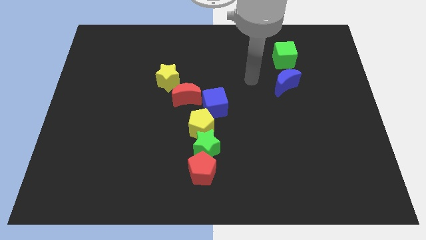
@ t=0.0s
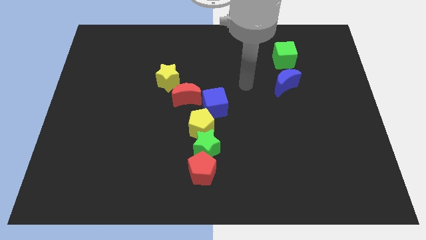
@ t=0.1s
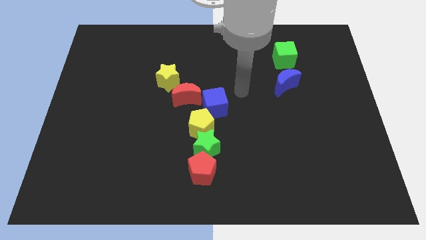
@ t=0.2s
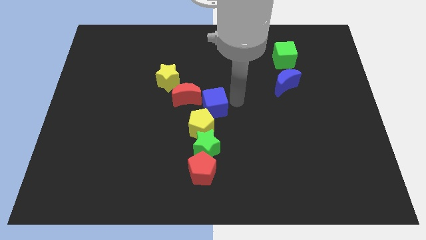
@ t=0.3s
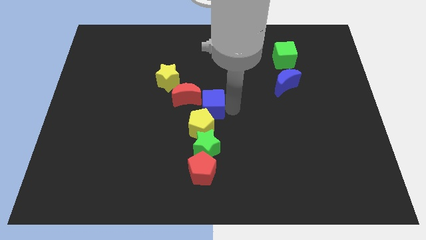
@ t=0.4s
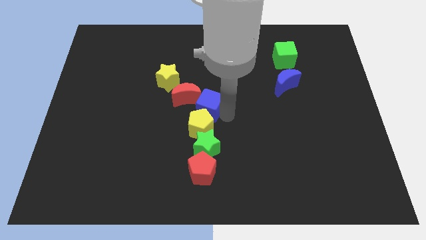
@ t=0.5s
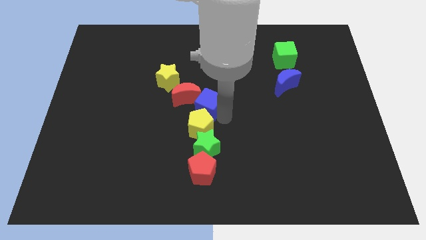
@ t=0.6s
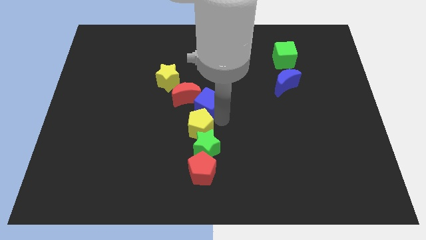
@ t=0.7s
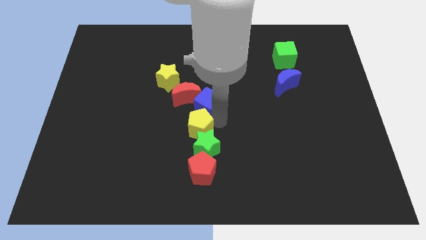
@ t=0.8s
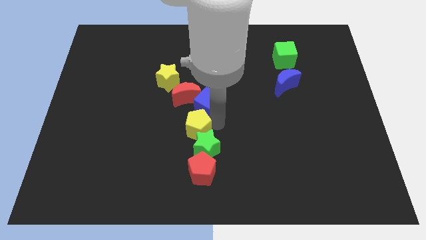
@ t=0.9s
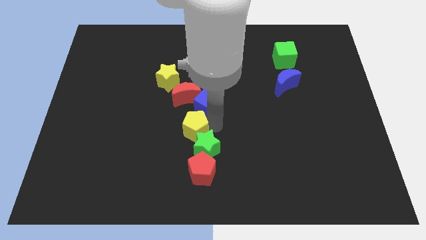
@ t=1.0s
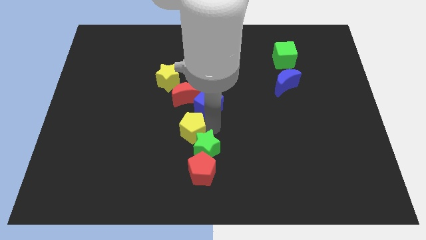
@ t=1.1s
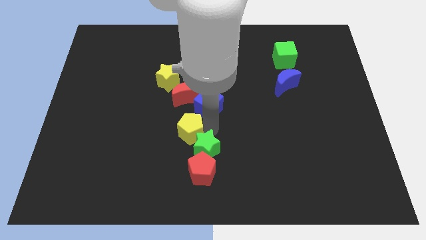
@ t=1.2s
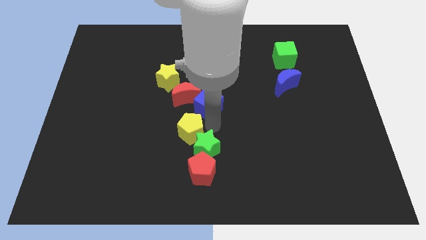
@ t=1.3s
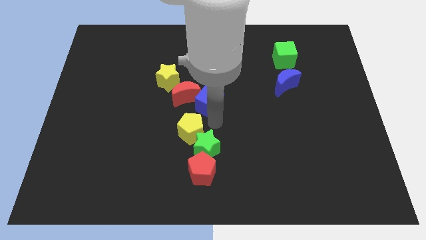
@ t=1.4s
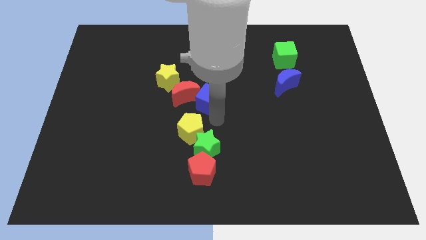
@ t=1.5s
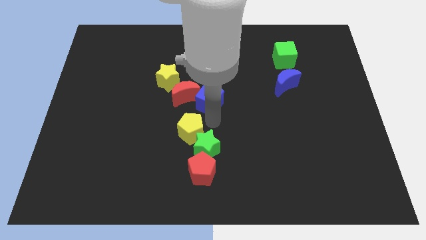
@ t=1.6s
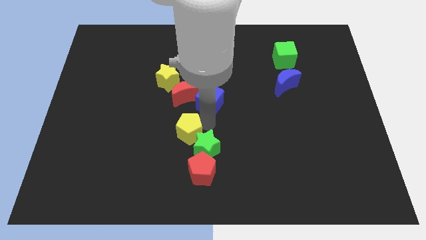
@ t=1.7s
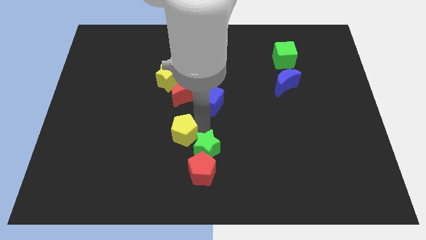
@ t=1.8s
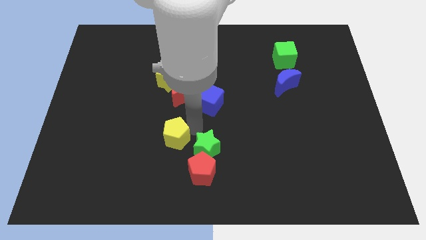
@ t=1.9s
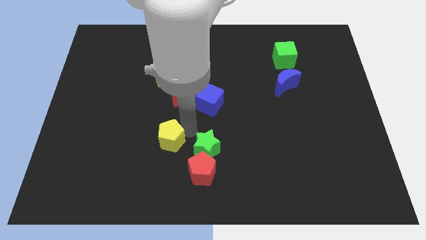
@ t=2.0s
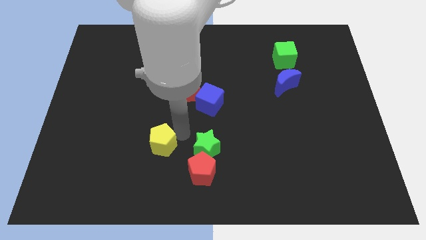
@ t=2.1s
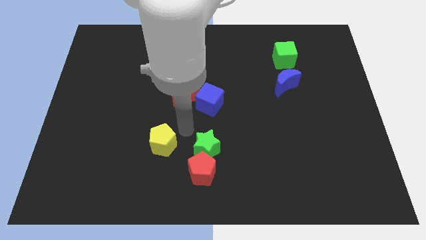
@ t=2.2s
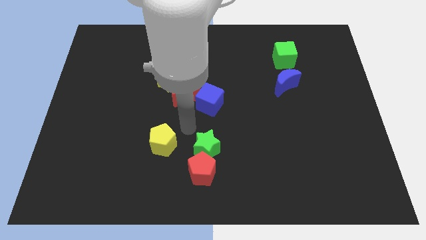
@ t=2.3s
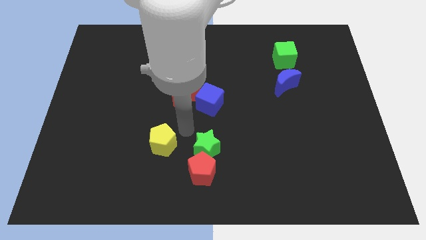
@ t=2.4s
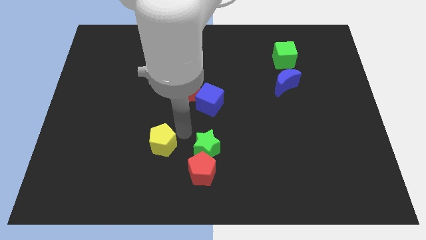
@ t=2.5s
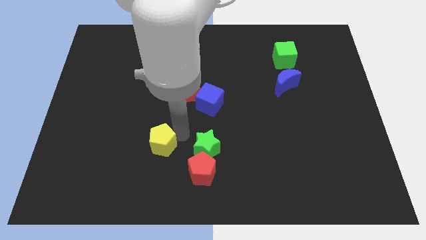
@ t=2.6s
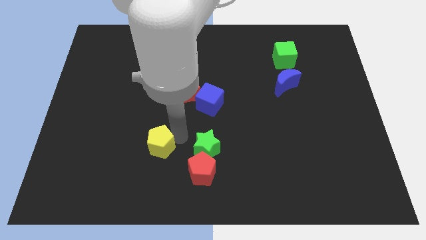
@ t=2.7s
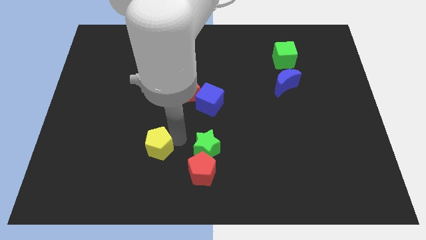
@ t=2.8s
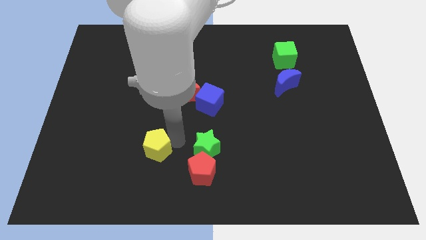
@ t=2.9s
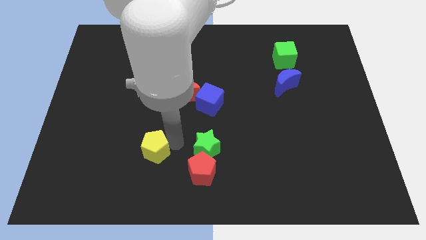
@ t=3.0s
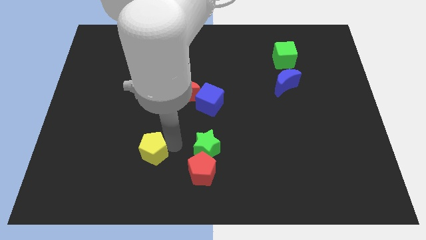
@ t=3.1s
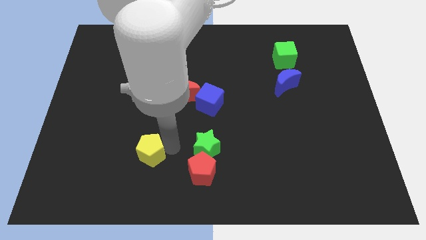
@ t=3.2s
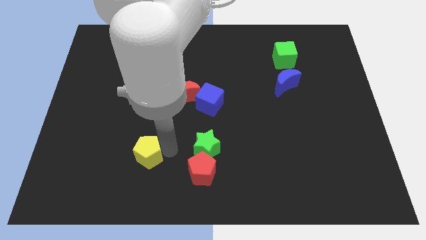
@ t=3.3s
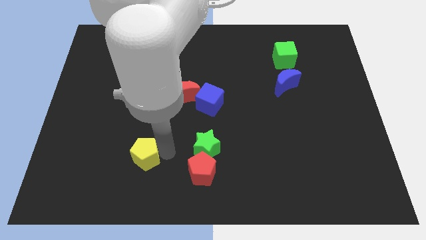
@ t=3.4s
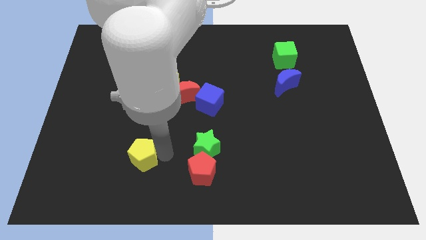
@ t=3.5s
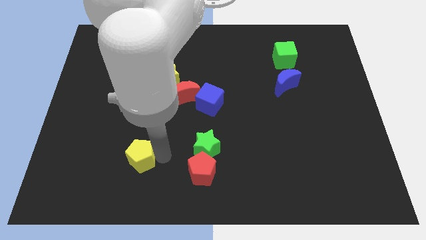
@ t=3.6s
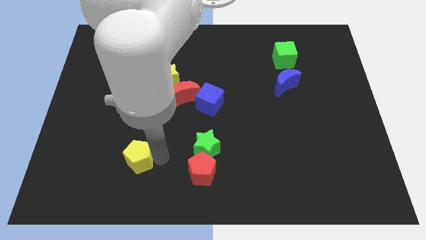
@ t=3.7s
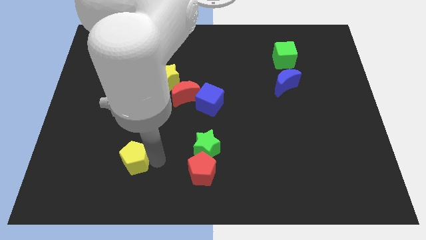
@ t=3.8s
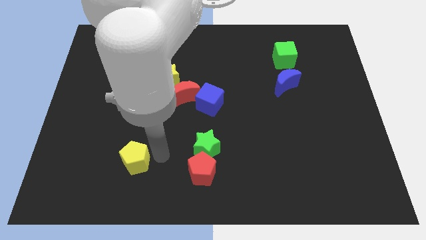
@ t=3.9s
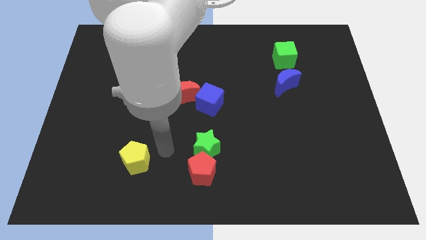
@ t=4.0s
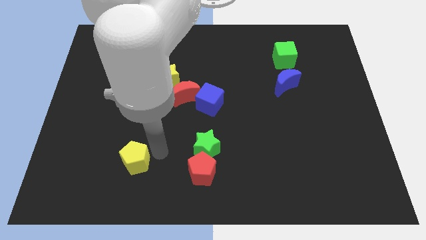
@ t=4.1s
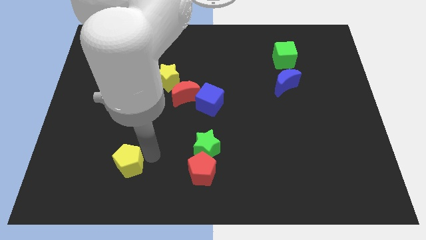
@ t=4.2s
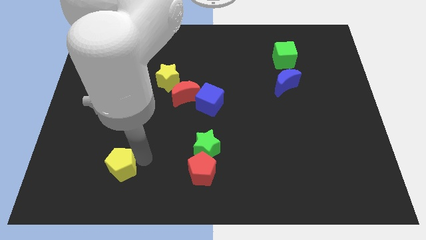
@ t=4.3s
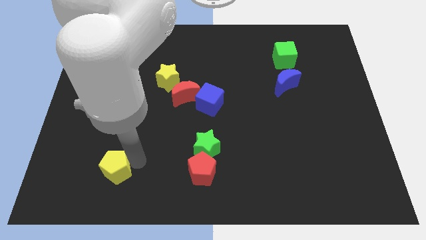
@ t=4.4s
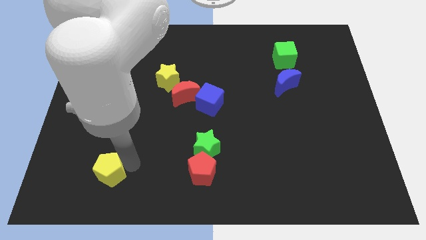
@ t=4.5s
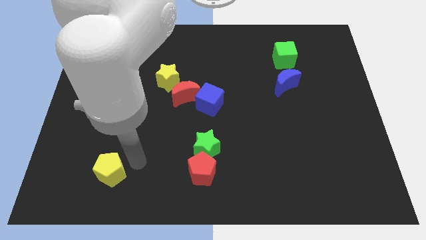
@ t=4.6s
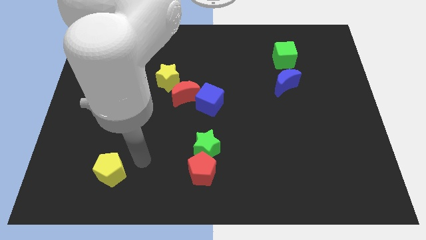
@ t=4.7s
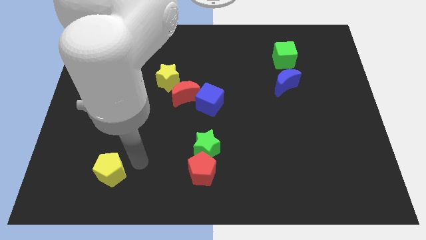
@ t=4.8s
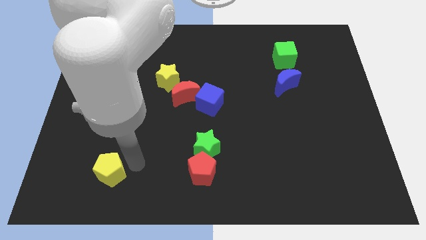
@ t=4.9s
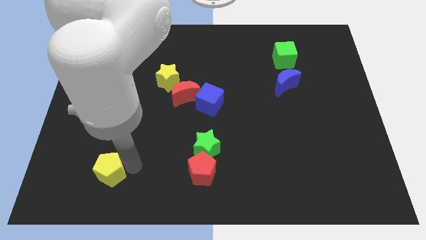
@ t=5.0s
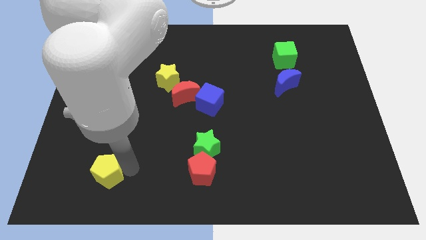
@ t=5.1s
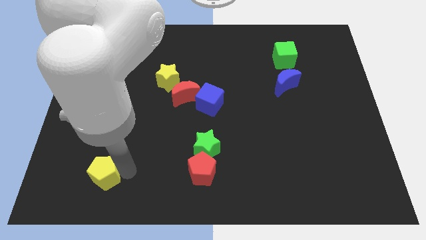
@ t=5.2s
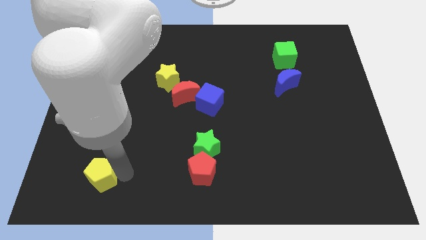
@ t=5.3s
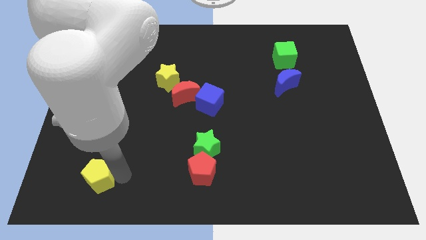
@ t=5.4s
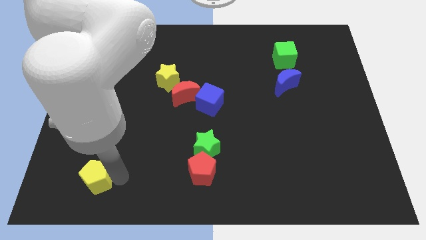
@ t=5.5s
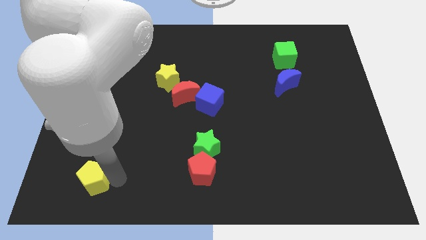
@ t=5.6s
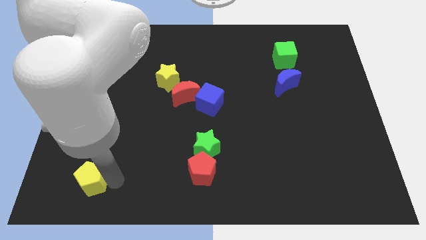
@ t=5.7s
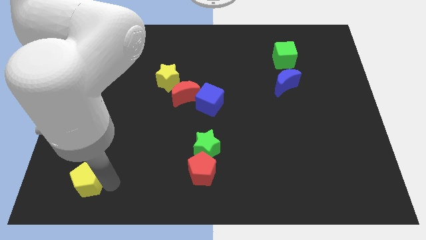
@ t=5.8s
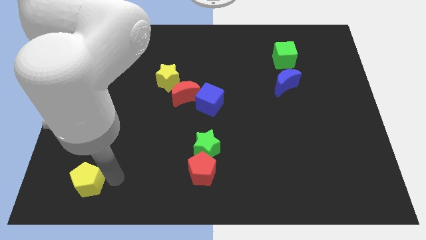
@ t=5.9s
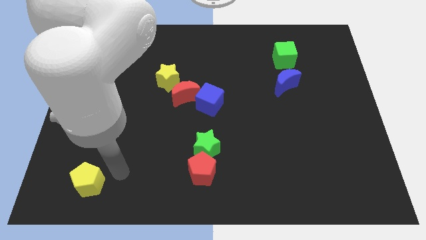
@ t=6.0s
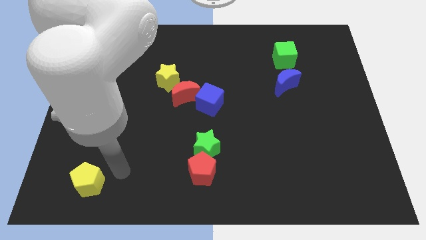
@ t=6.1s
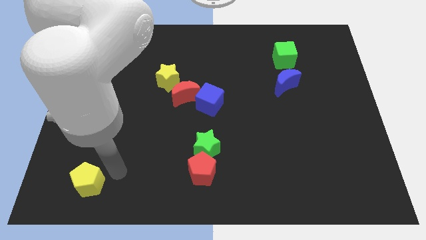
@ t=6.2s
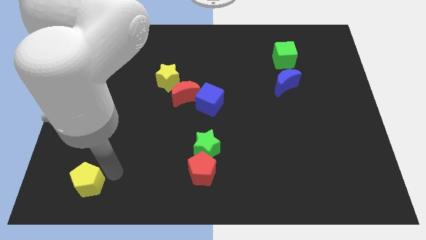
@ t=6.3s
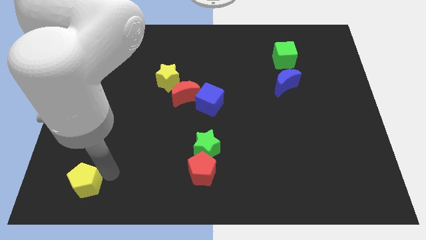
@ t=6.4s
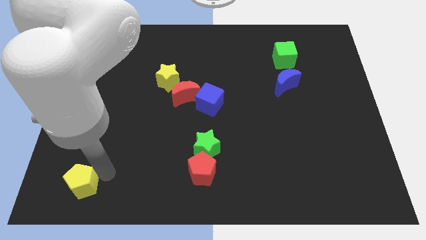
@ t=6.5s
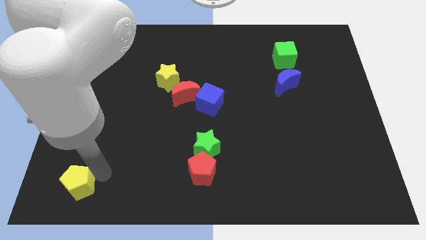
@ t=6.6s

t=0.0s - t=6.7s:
move the yellow pentagon to the bottom left corner
